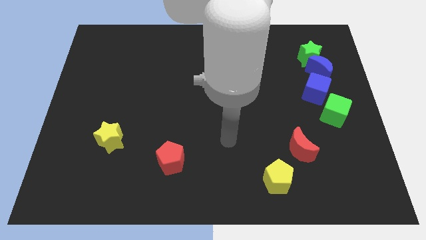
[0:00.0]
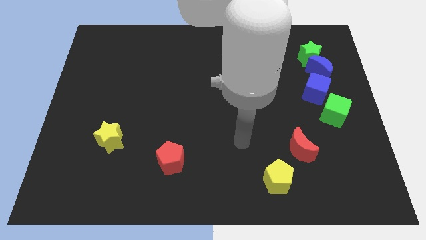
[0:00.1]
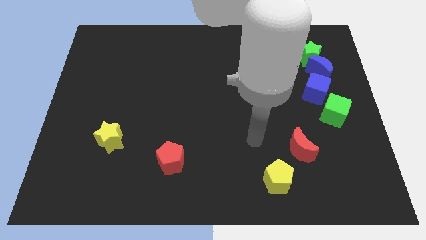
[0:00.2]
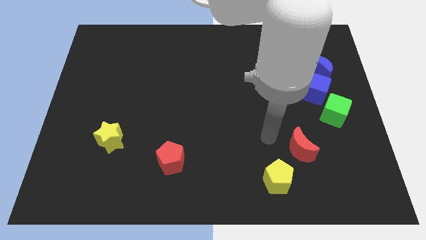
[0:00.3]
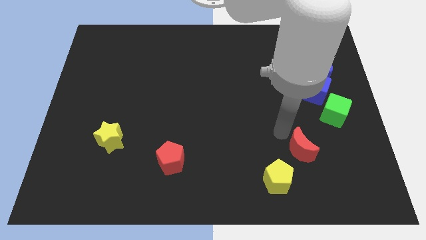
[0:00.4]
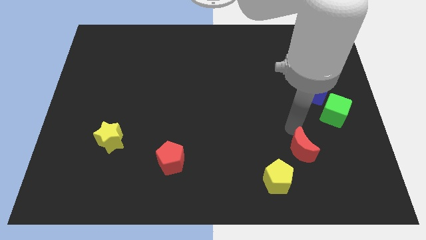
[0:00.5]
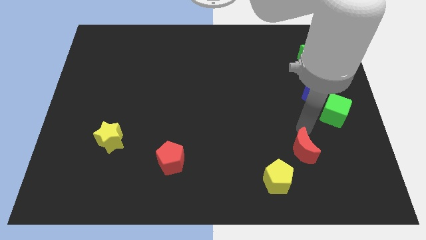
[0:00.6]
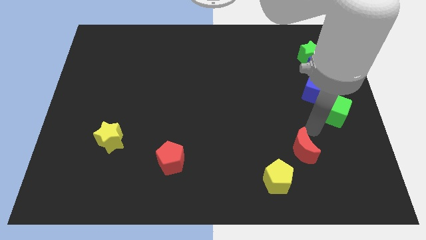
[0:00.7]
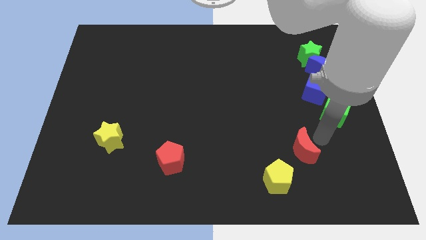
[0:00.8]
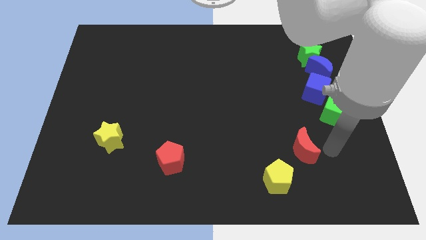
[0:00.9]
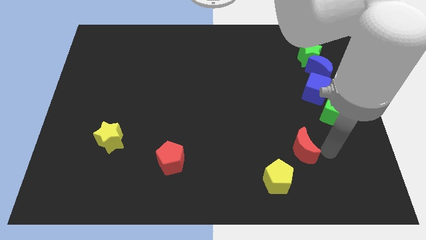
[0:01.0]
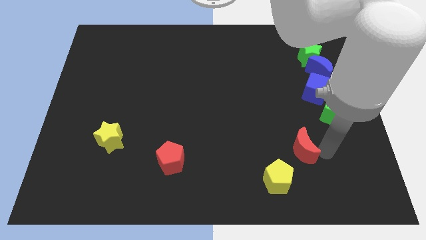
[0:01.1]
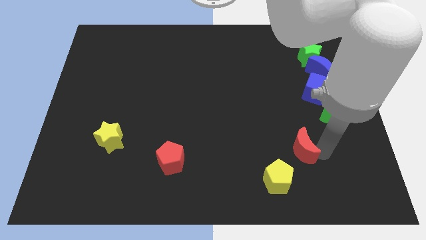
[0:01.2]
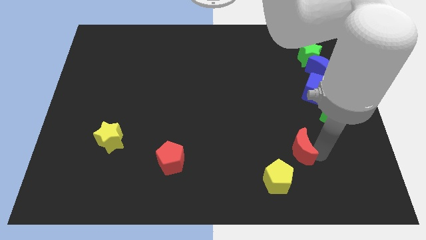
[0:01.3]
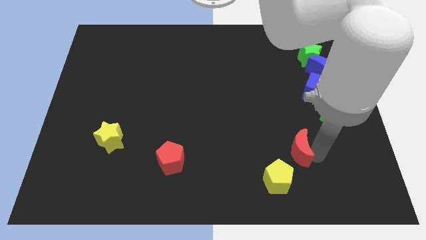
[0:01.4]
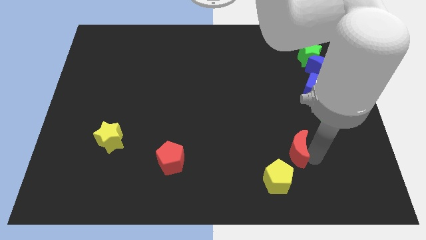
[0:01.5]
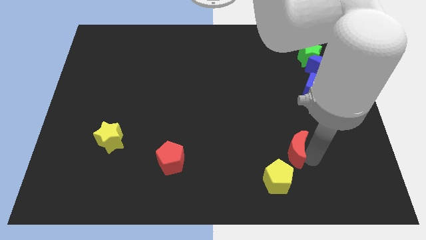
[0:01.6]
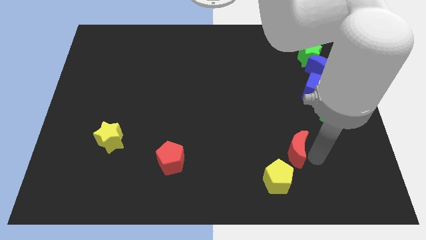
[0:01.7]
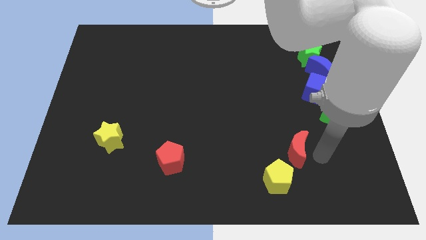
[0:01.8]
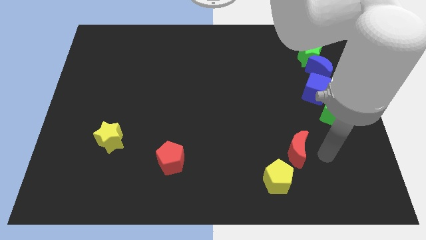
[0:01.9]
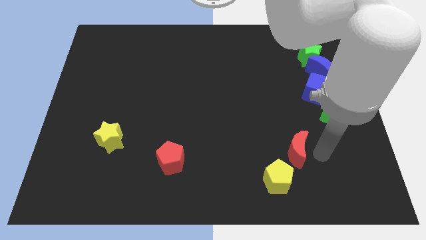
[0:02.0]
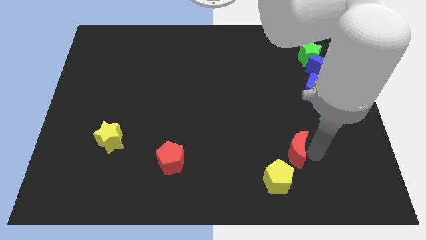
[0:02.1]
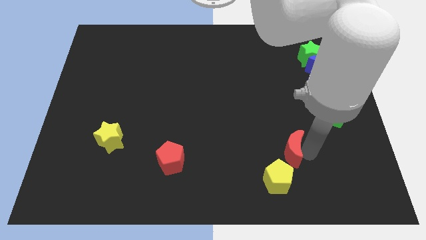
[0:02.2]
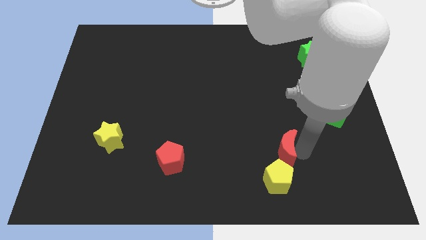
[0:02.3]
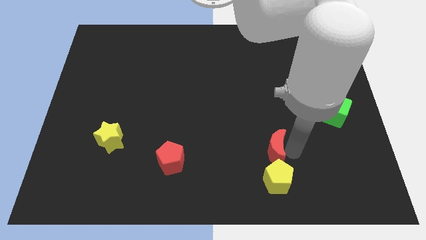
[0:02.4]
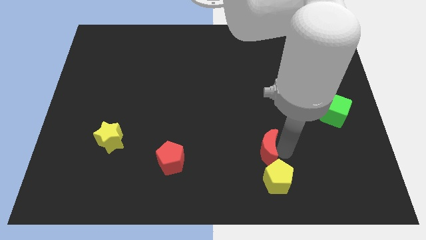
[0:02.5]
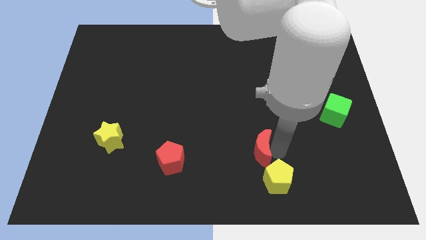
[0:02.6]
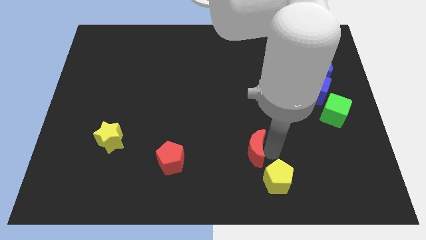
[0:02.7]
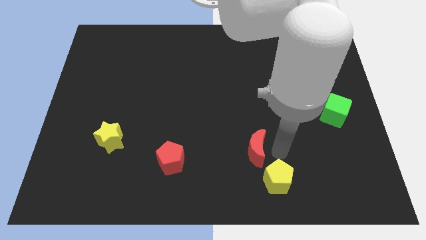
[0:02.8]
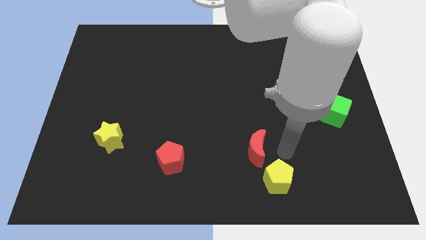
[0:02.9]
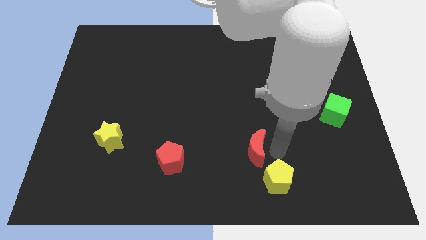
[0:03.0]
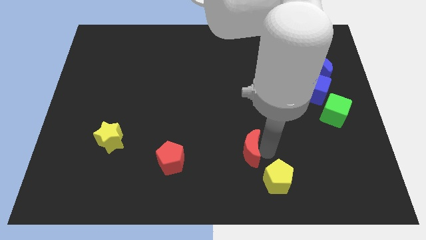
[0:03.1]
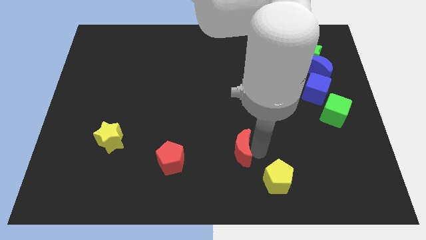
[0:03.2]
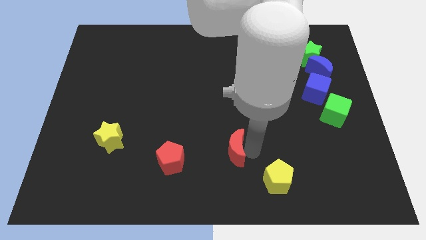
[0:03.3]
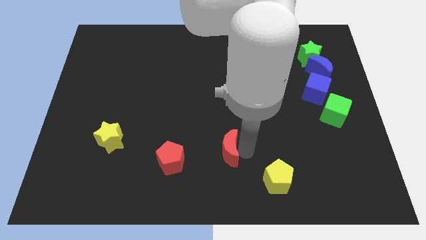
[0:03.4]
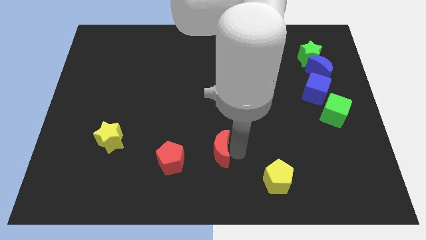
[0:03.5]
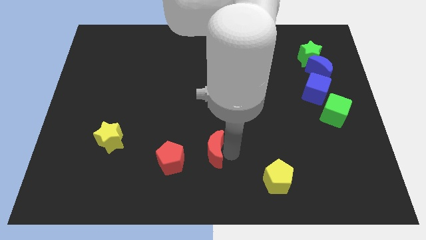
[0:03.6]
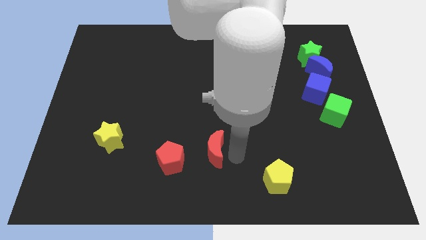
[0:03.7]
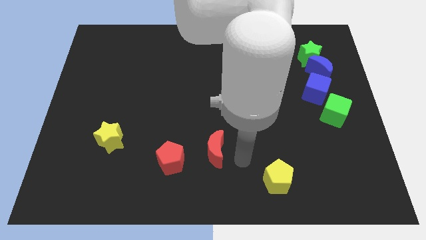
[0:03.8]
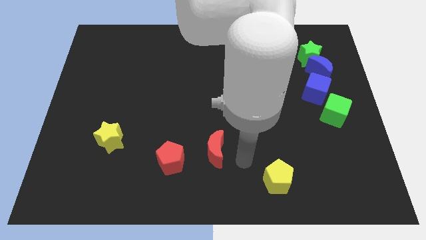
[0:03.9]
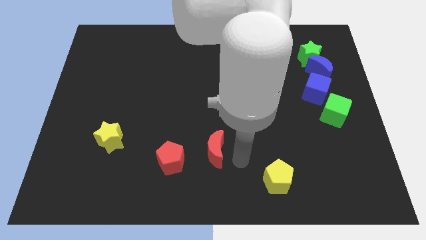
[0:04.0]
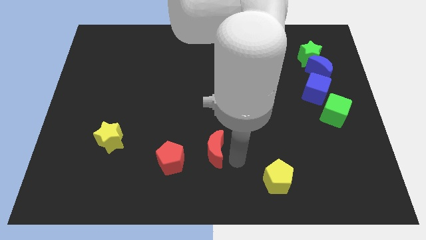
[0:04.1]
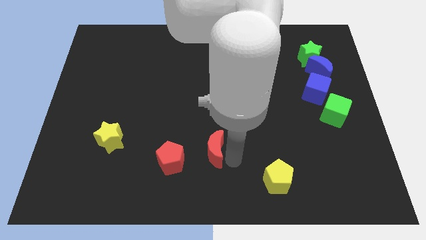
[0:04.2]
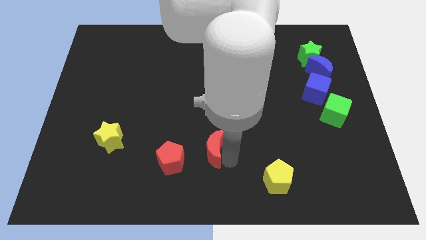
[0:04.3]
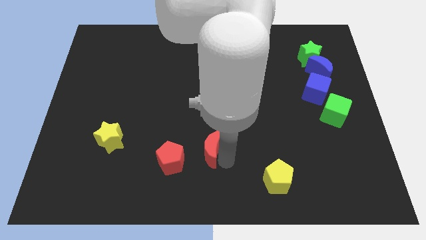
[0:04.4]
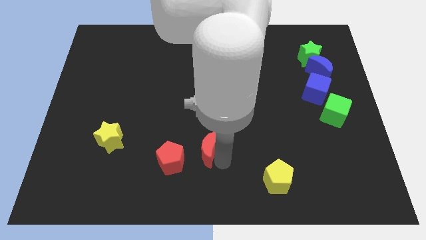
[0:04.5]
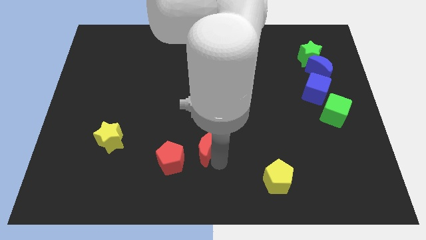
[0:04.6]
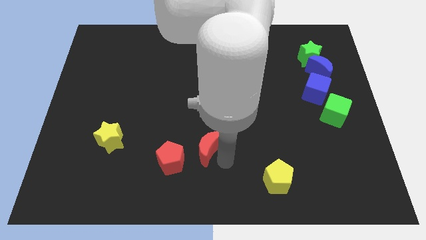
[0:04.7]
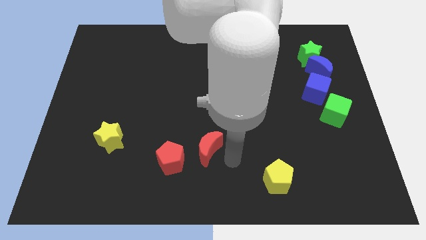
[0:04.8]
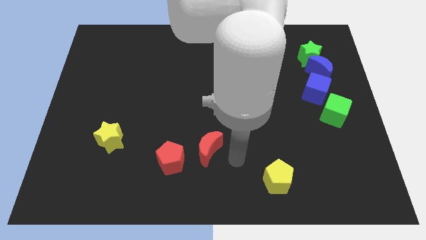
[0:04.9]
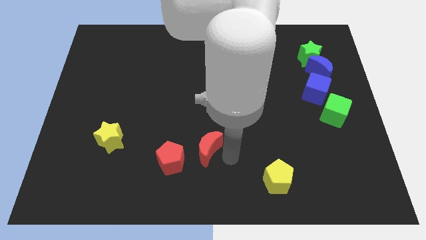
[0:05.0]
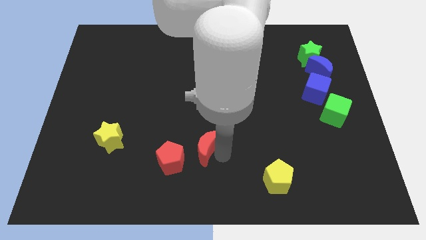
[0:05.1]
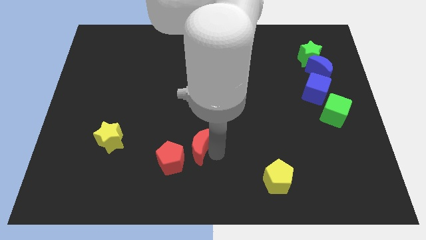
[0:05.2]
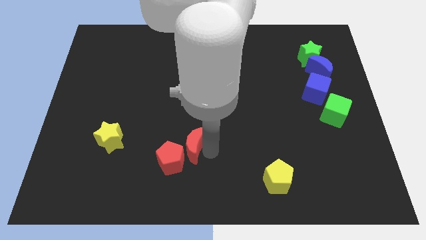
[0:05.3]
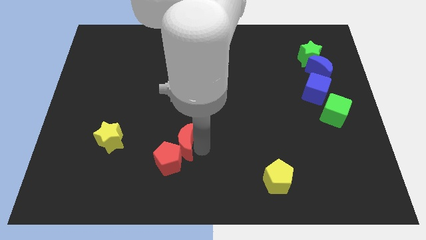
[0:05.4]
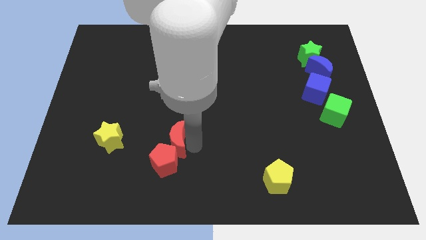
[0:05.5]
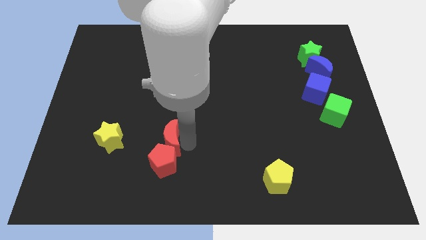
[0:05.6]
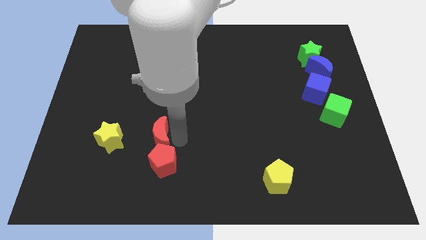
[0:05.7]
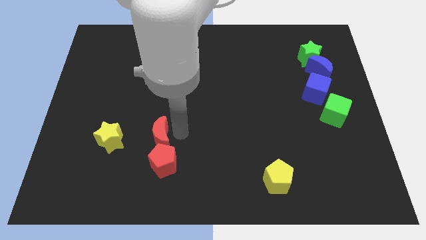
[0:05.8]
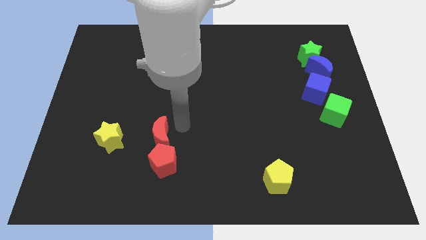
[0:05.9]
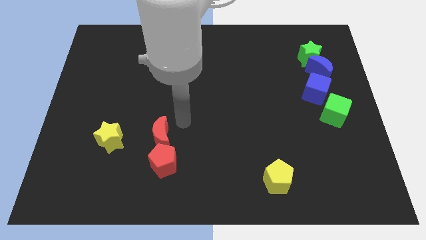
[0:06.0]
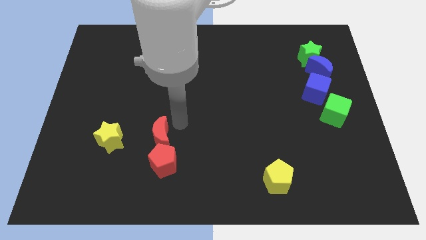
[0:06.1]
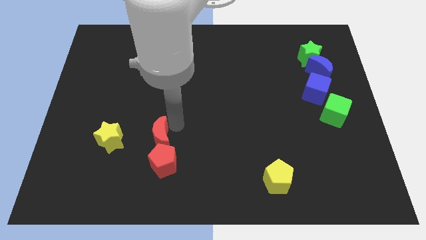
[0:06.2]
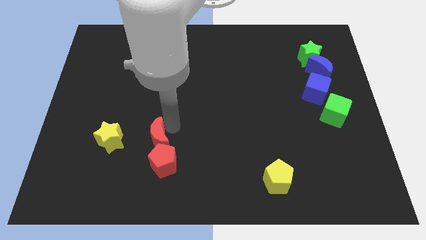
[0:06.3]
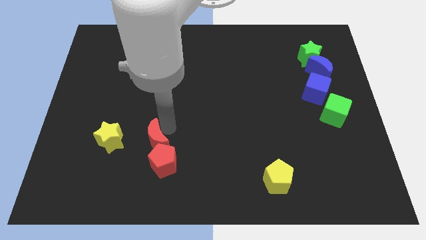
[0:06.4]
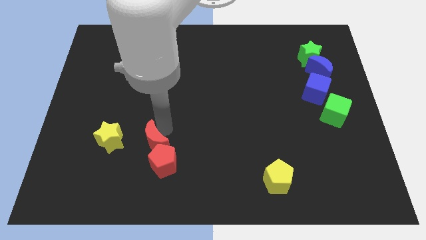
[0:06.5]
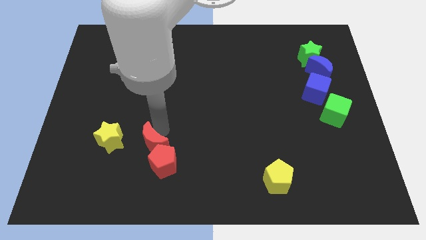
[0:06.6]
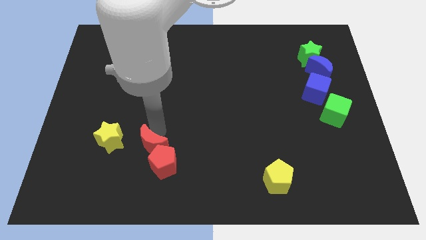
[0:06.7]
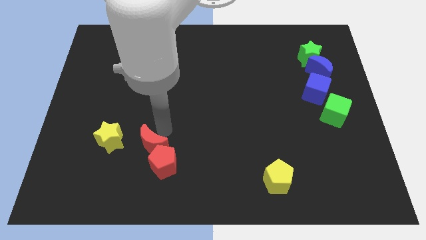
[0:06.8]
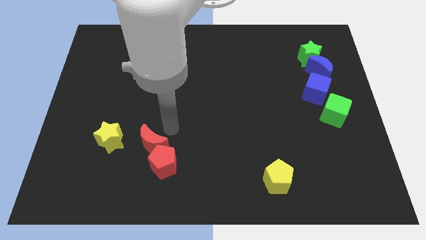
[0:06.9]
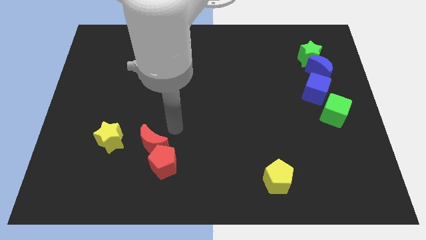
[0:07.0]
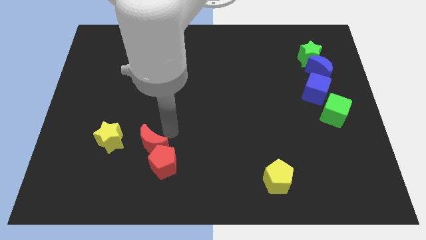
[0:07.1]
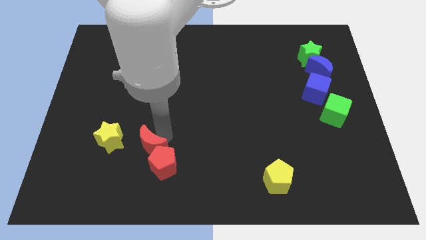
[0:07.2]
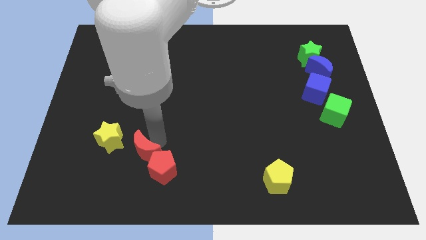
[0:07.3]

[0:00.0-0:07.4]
push the red moon diagonally down and to the right of the yellow star
